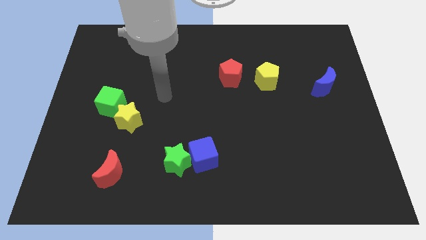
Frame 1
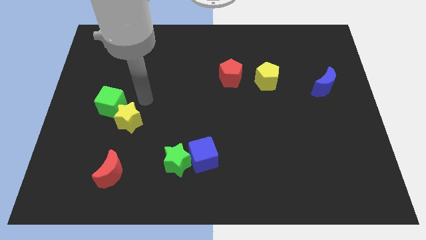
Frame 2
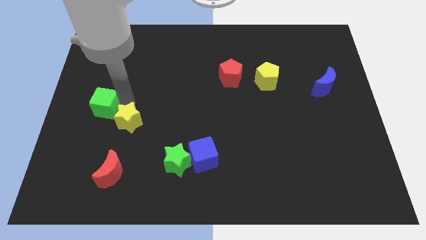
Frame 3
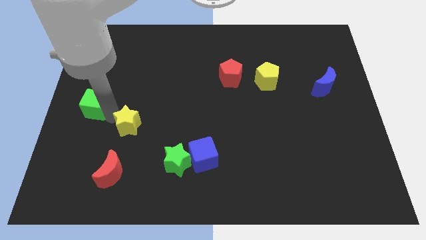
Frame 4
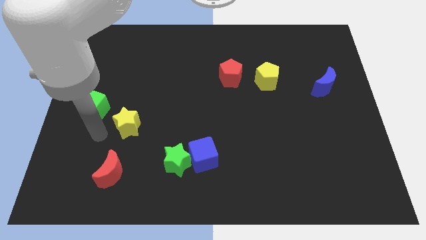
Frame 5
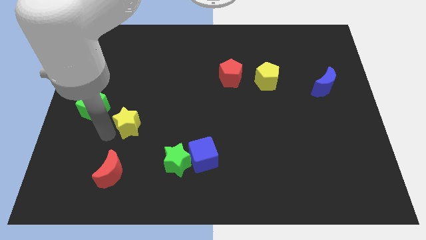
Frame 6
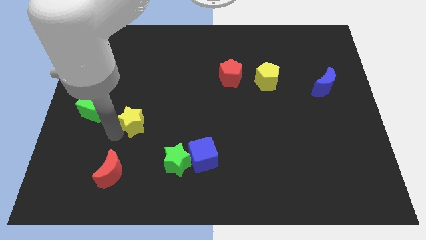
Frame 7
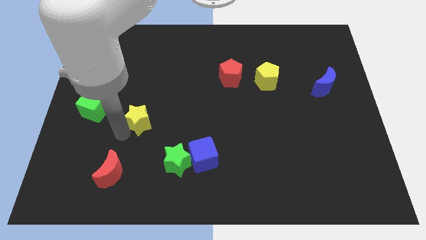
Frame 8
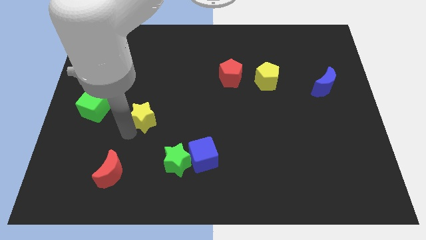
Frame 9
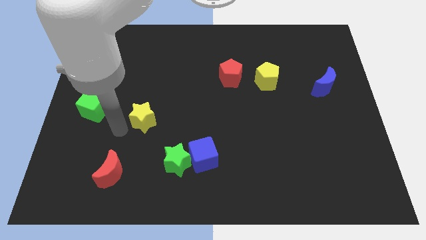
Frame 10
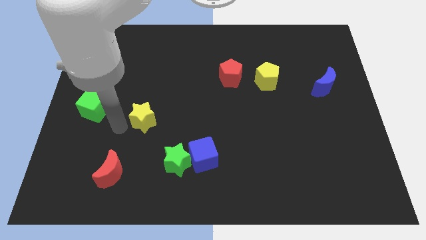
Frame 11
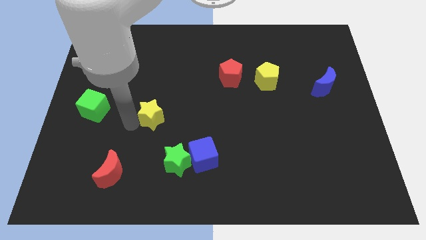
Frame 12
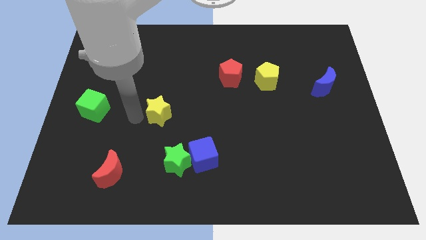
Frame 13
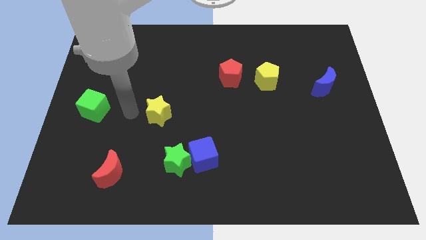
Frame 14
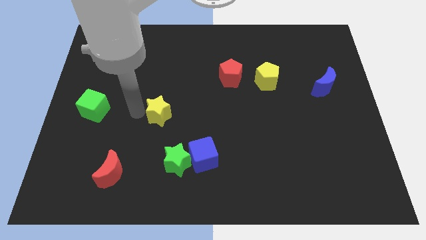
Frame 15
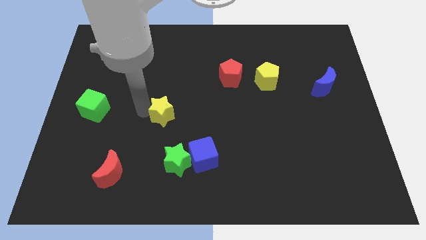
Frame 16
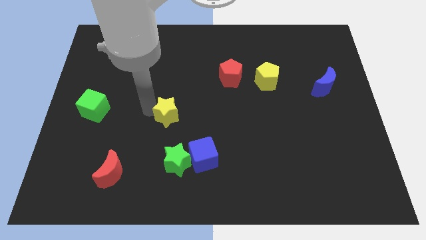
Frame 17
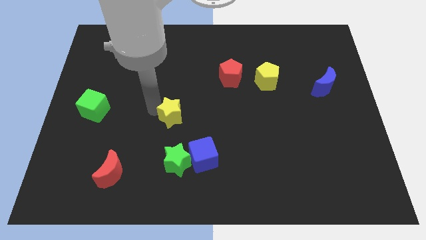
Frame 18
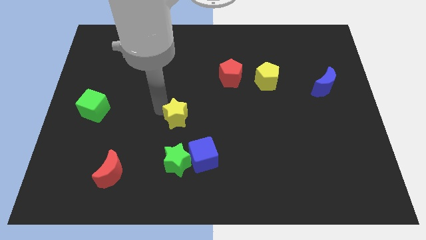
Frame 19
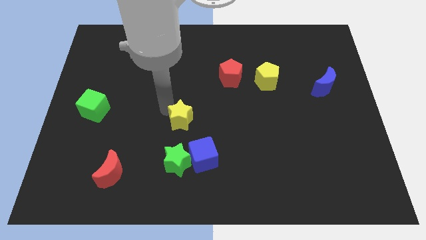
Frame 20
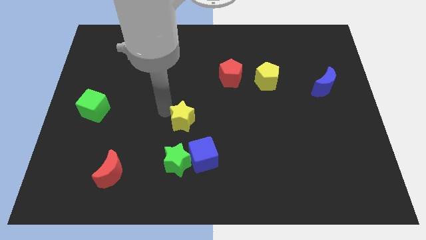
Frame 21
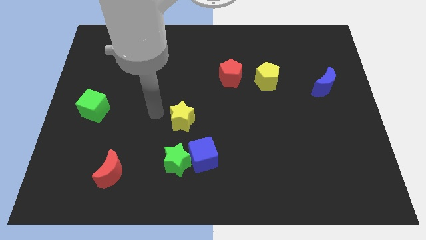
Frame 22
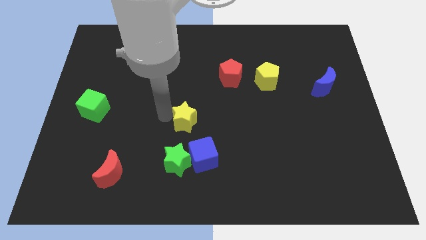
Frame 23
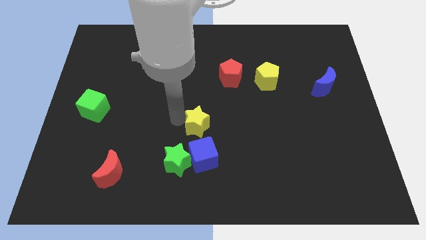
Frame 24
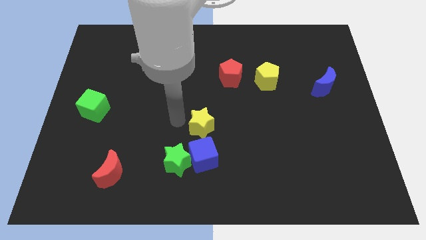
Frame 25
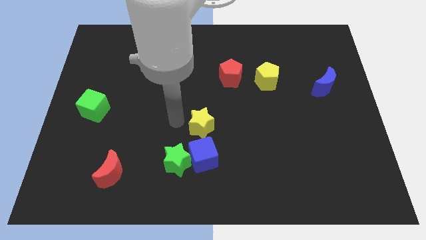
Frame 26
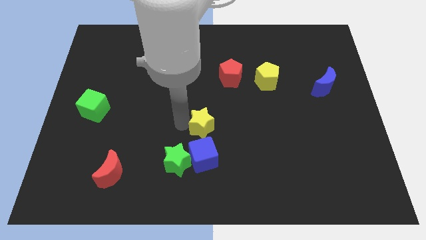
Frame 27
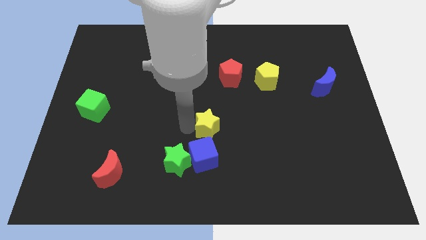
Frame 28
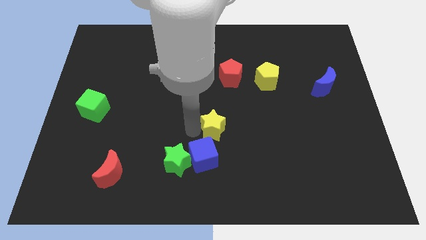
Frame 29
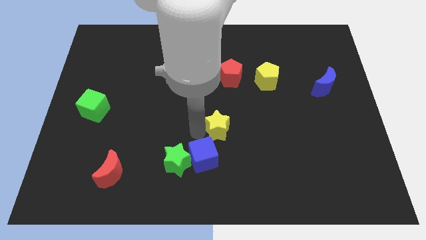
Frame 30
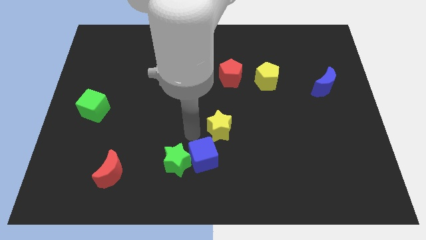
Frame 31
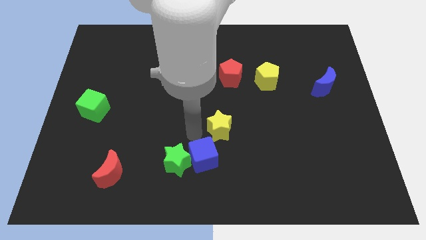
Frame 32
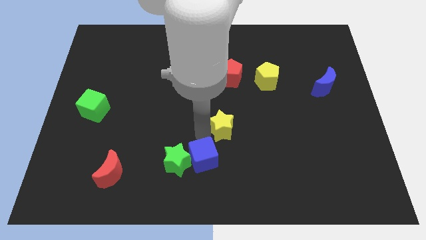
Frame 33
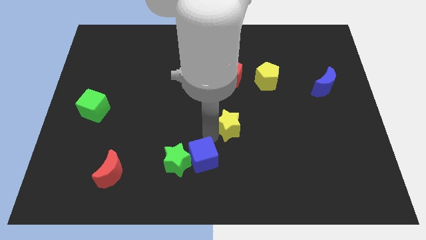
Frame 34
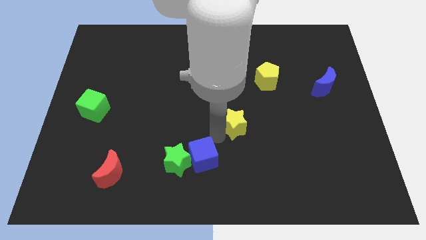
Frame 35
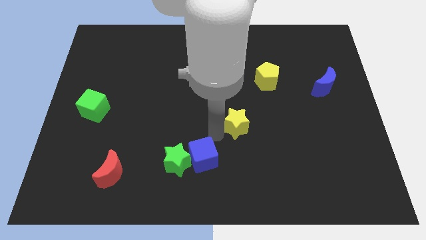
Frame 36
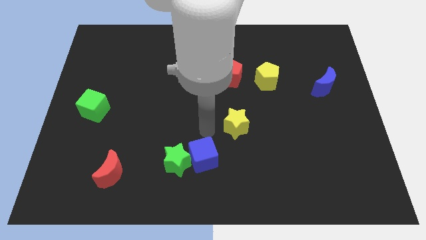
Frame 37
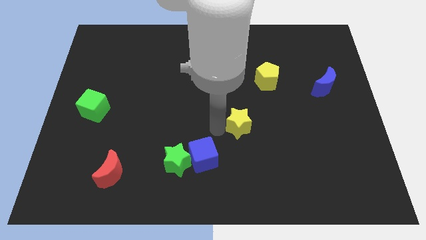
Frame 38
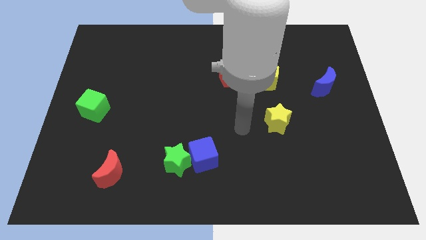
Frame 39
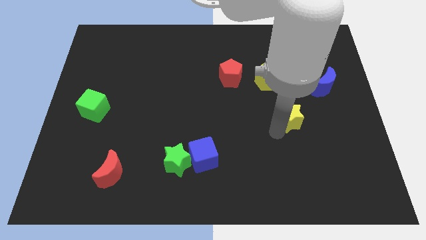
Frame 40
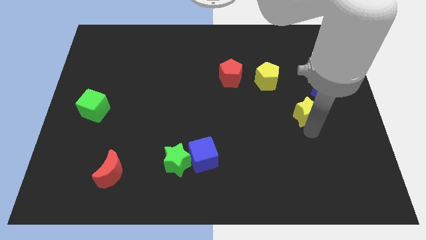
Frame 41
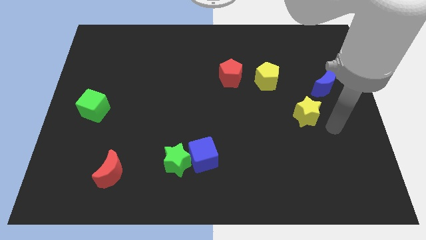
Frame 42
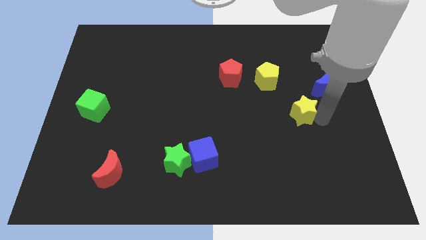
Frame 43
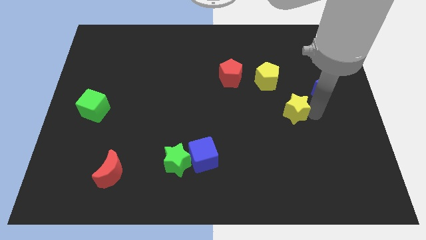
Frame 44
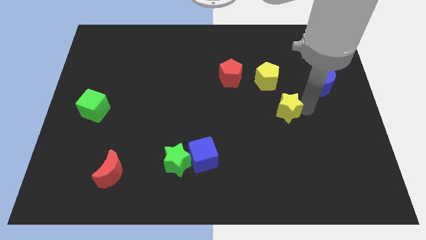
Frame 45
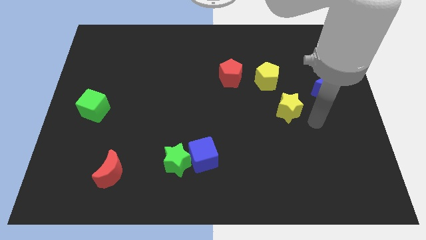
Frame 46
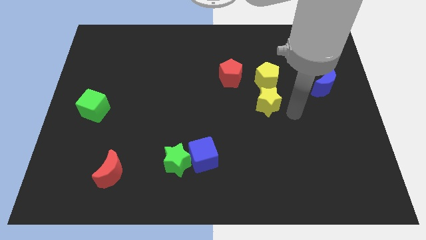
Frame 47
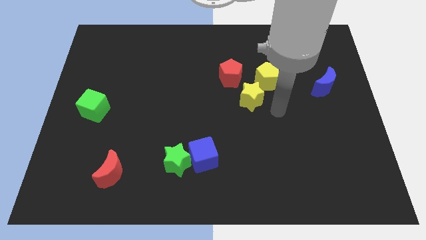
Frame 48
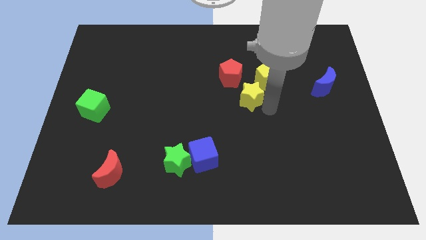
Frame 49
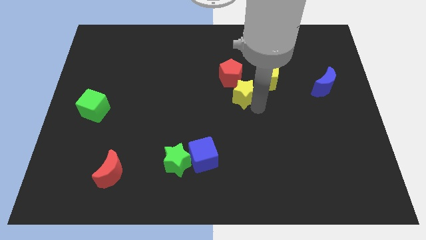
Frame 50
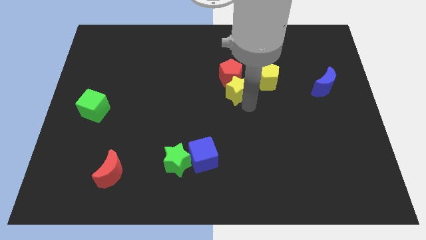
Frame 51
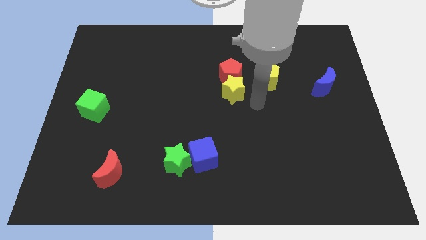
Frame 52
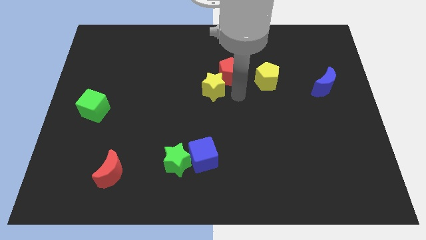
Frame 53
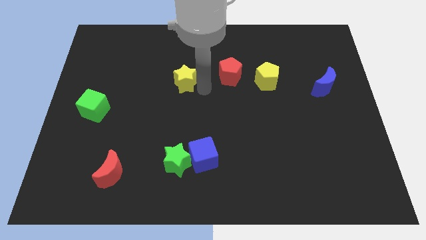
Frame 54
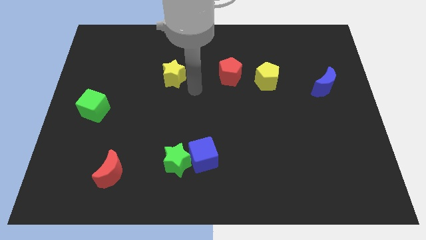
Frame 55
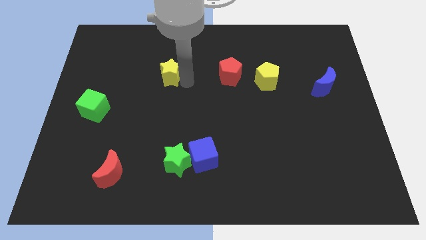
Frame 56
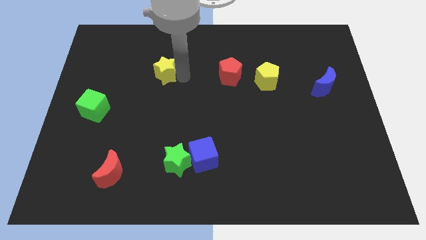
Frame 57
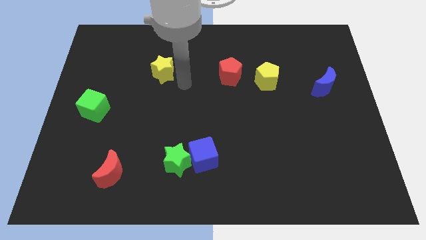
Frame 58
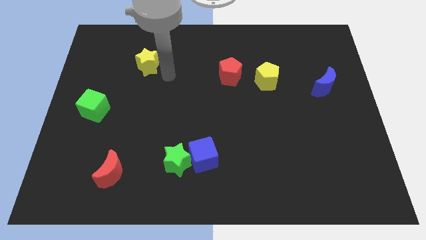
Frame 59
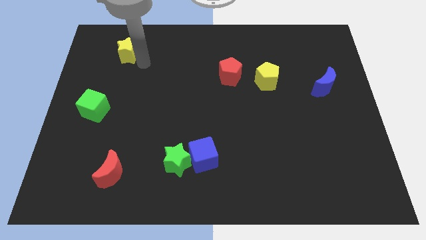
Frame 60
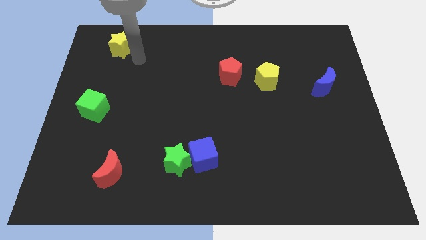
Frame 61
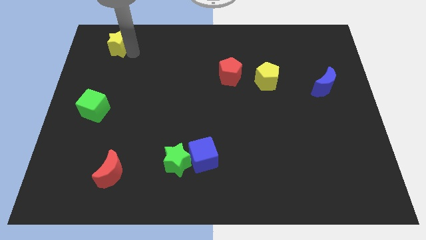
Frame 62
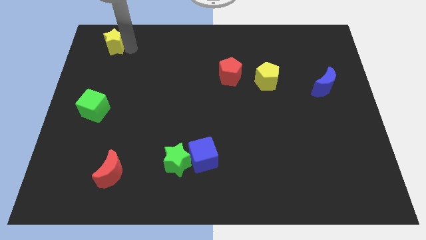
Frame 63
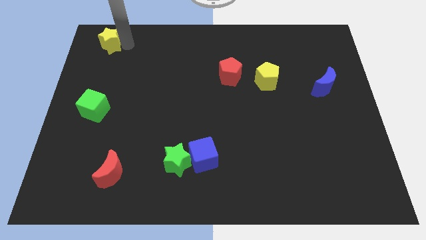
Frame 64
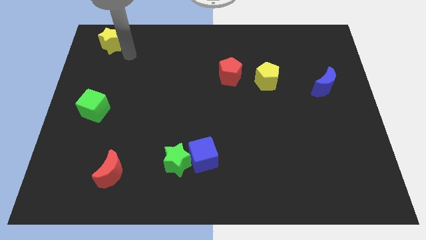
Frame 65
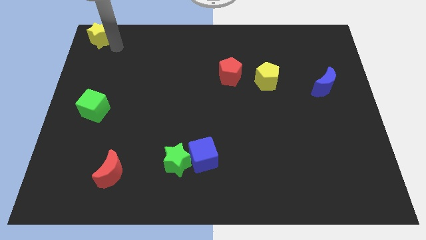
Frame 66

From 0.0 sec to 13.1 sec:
move the yellow star to the top left of the board
